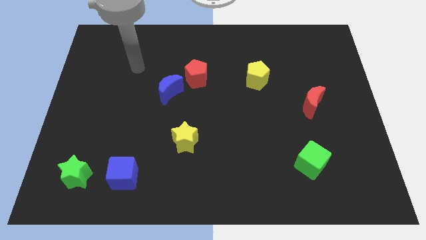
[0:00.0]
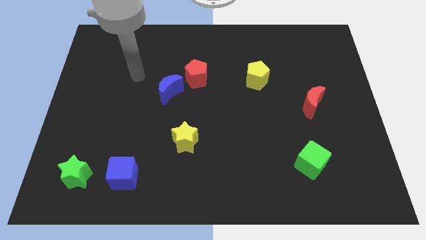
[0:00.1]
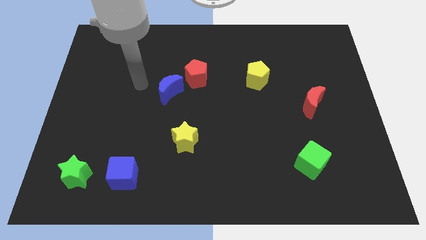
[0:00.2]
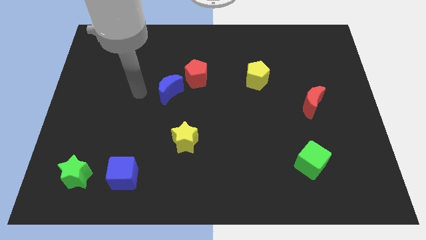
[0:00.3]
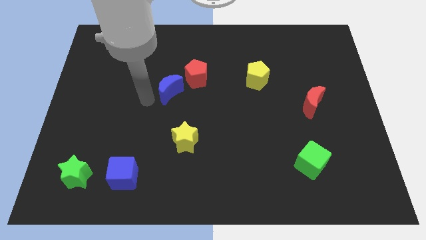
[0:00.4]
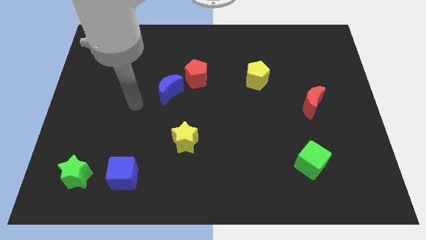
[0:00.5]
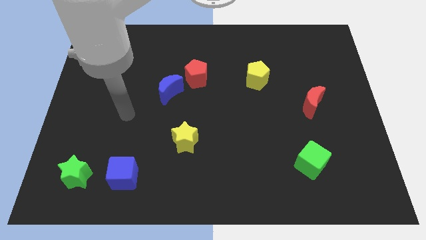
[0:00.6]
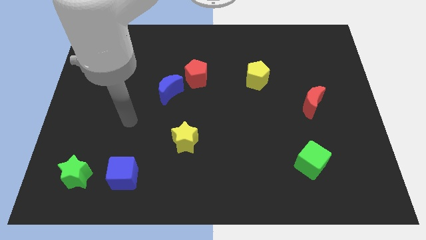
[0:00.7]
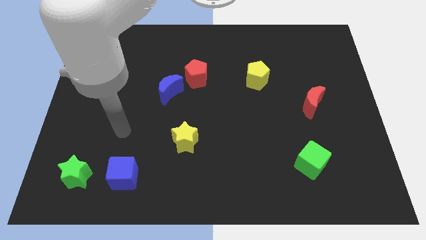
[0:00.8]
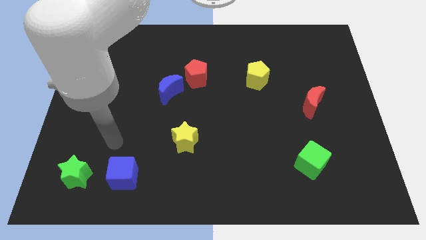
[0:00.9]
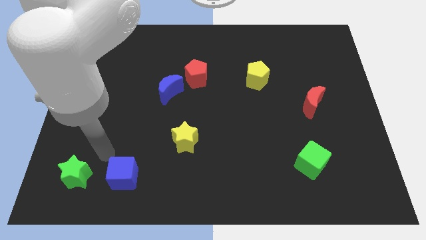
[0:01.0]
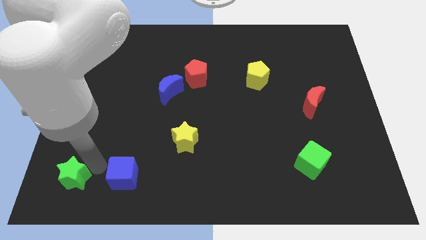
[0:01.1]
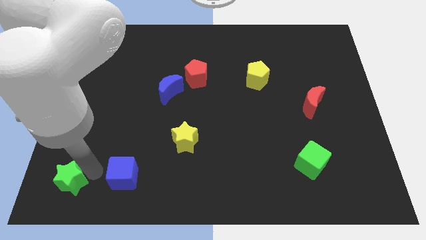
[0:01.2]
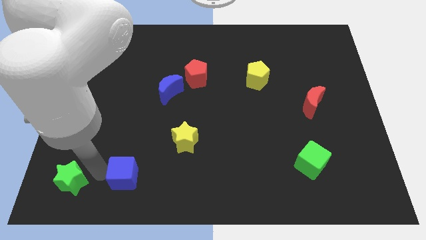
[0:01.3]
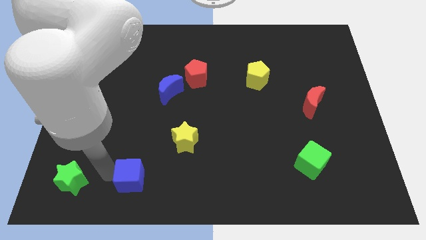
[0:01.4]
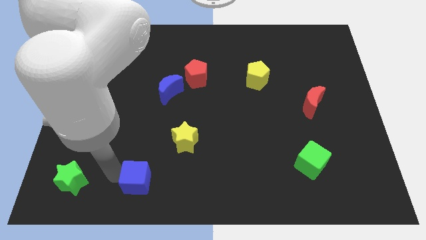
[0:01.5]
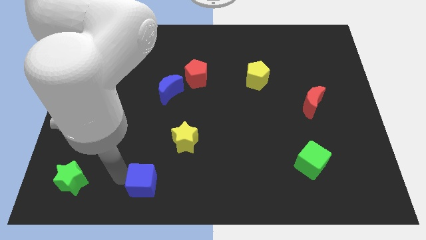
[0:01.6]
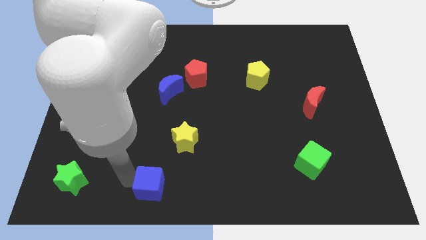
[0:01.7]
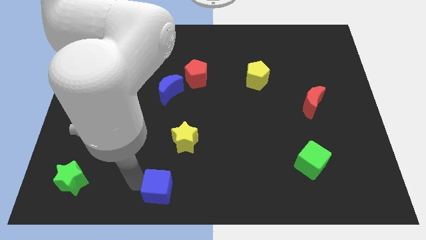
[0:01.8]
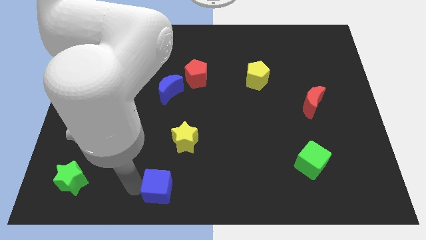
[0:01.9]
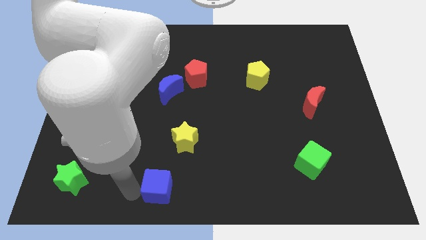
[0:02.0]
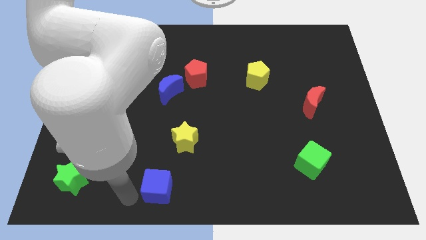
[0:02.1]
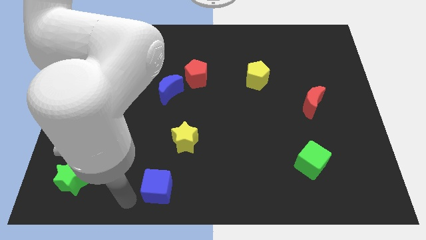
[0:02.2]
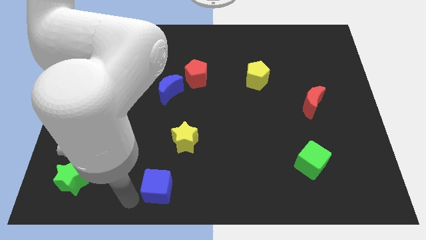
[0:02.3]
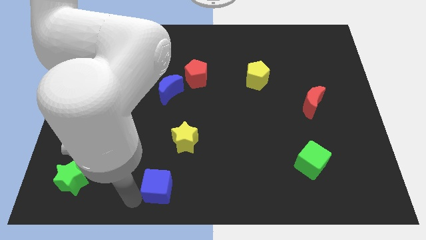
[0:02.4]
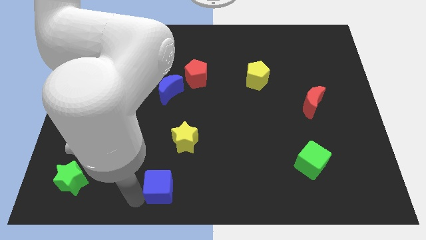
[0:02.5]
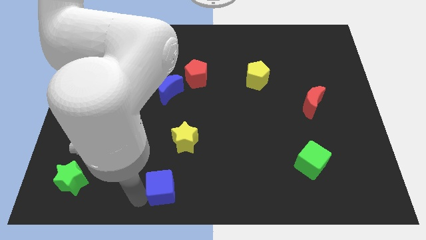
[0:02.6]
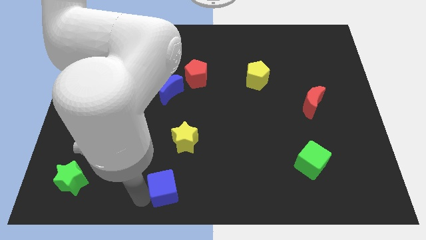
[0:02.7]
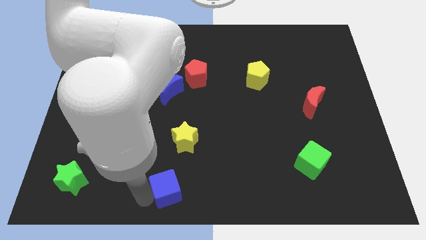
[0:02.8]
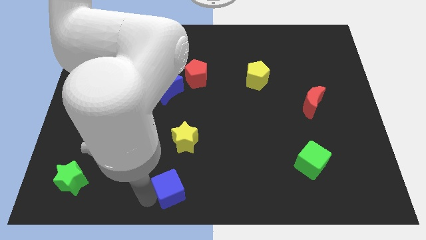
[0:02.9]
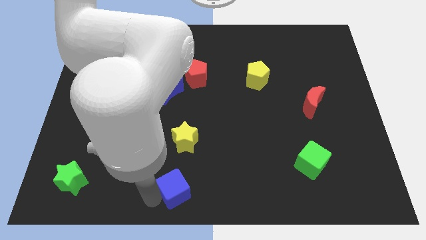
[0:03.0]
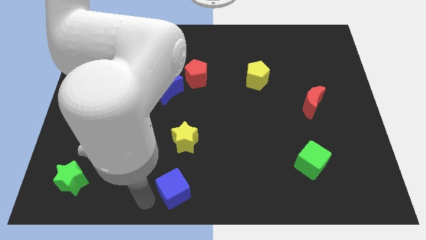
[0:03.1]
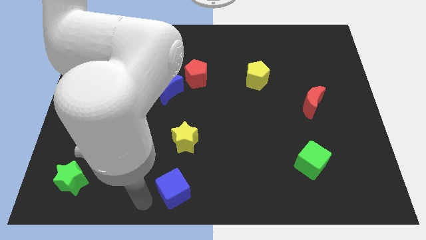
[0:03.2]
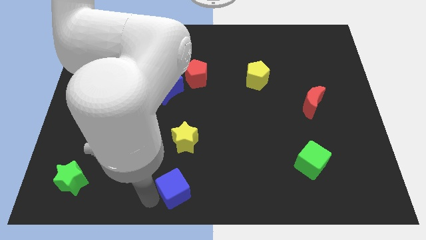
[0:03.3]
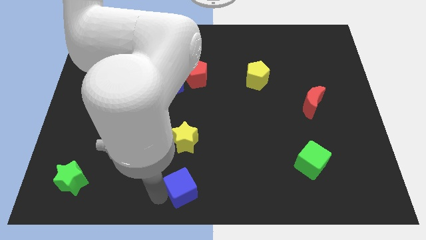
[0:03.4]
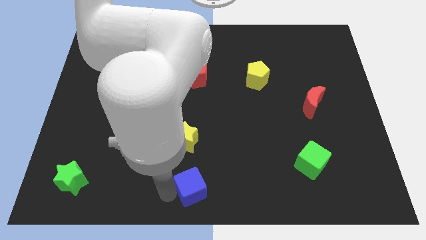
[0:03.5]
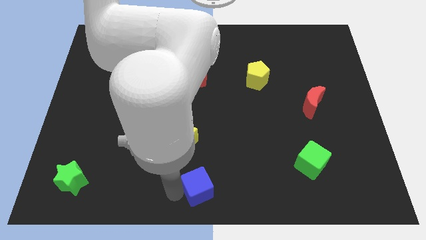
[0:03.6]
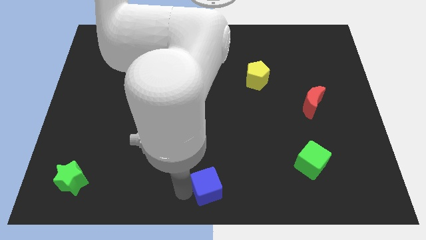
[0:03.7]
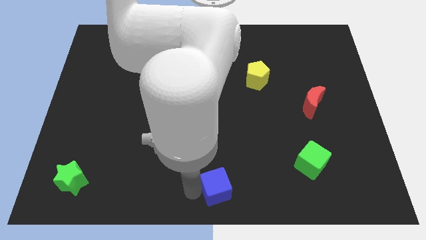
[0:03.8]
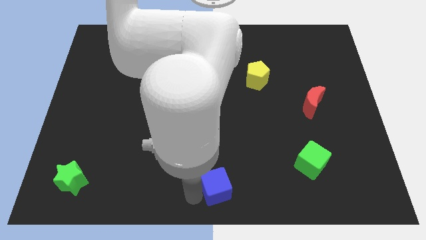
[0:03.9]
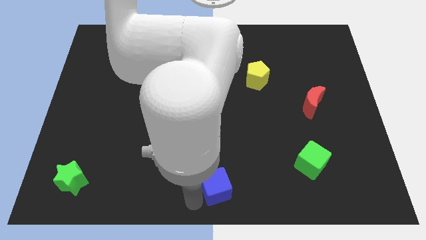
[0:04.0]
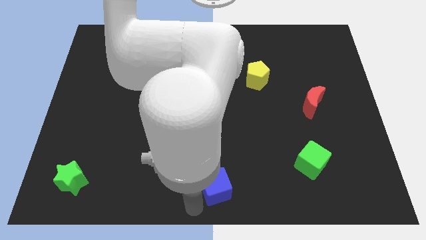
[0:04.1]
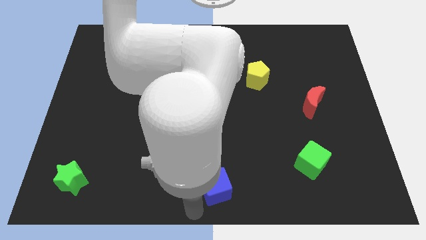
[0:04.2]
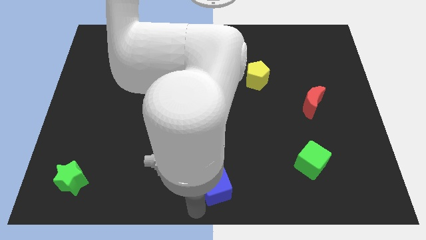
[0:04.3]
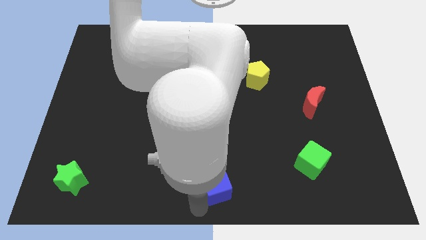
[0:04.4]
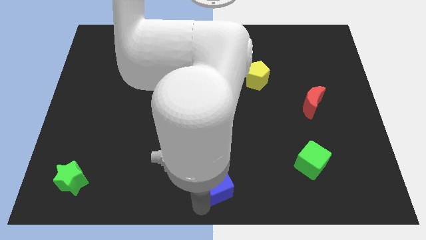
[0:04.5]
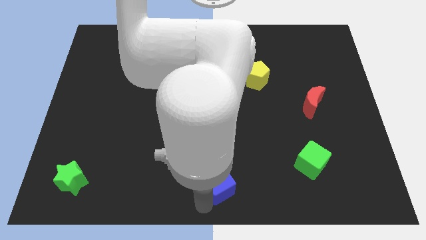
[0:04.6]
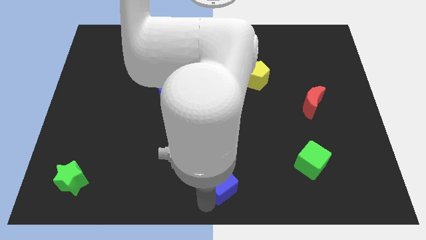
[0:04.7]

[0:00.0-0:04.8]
push the blue cube to the right

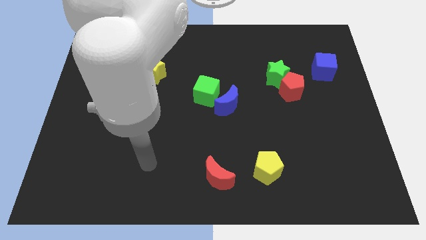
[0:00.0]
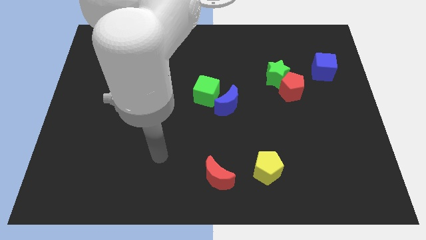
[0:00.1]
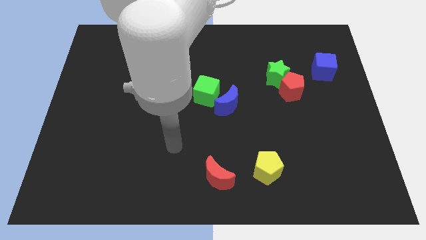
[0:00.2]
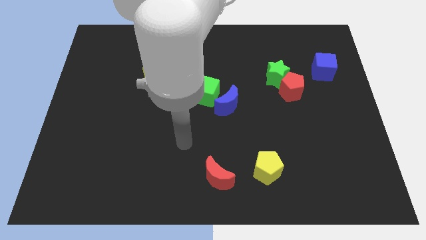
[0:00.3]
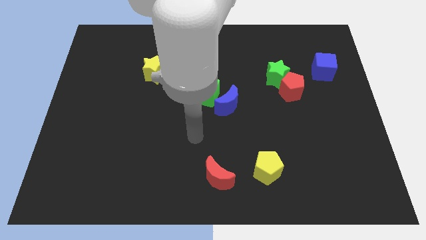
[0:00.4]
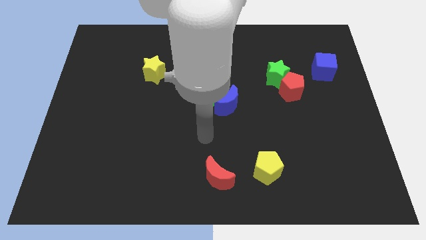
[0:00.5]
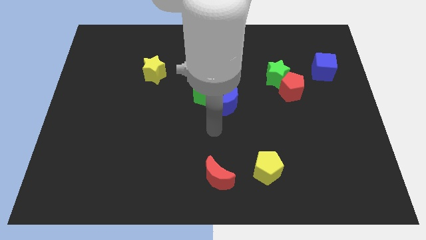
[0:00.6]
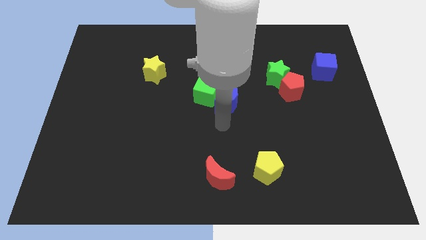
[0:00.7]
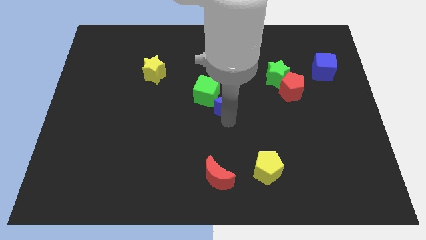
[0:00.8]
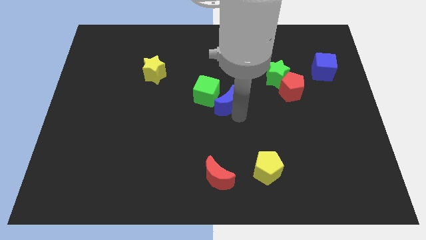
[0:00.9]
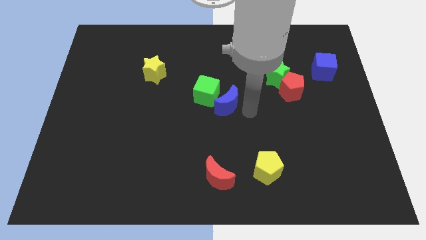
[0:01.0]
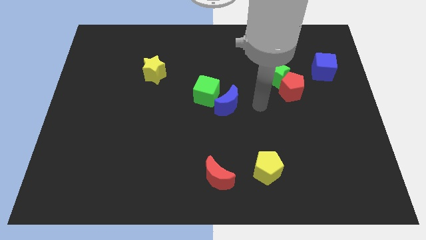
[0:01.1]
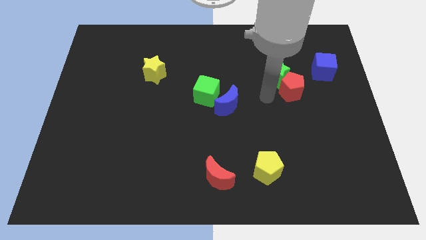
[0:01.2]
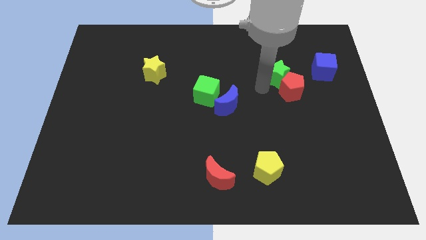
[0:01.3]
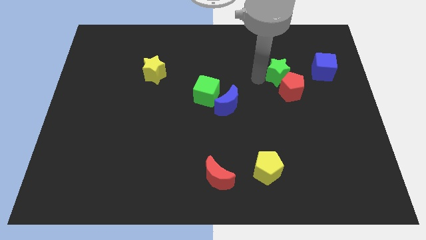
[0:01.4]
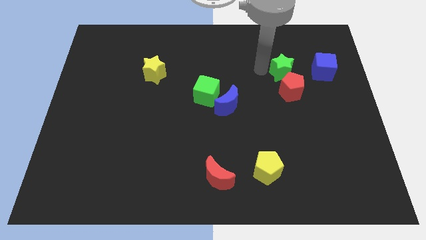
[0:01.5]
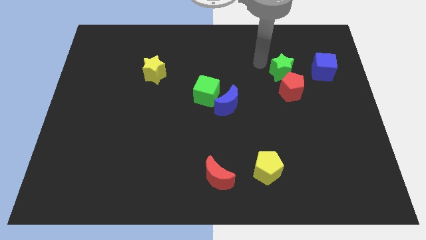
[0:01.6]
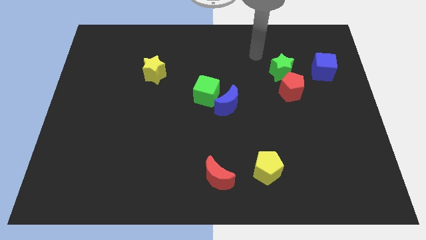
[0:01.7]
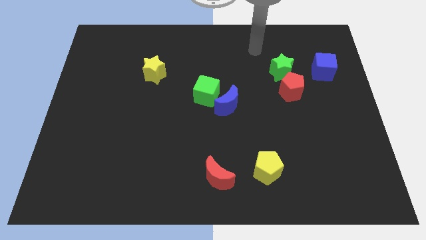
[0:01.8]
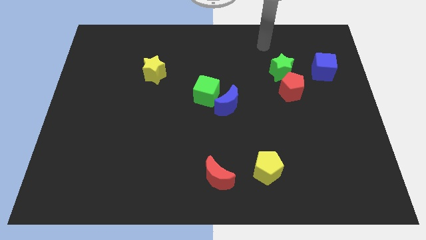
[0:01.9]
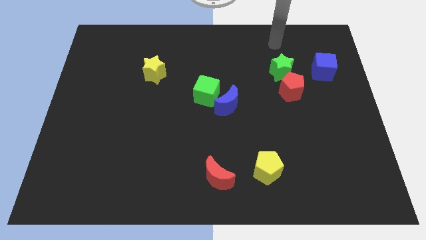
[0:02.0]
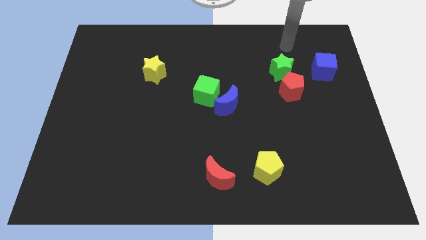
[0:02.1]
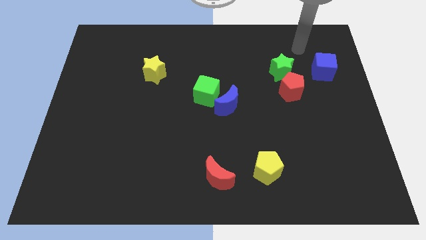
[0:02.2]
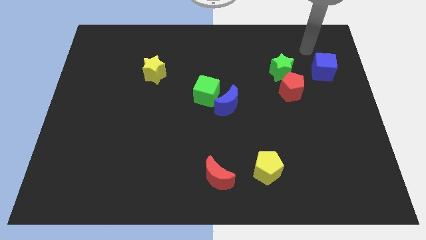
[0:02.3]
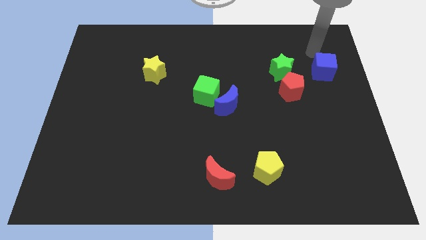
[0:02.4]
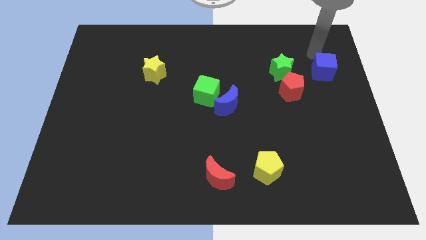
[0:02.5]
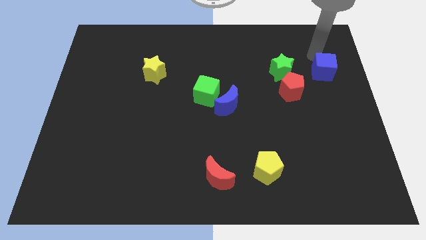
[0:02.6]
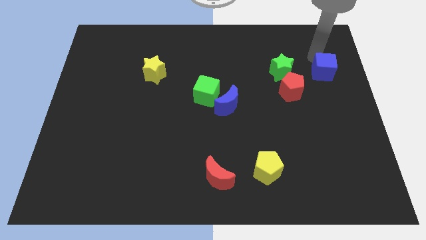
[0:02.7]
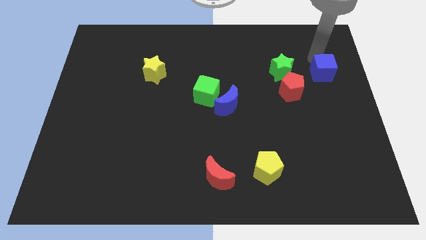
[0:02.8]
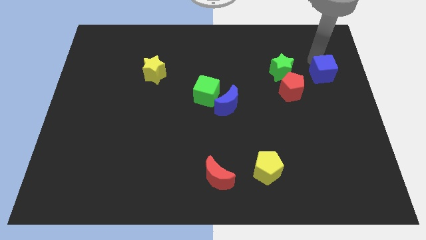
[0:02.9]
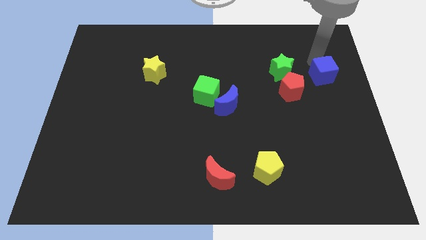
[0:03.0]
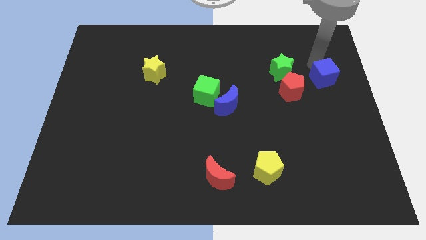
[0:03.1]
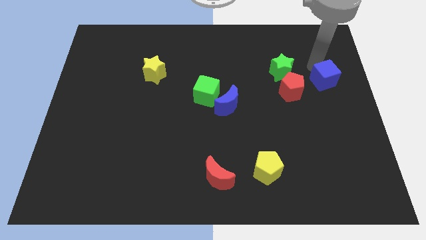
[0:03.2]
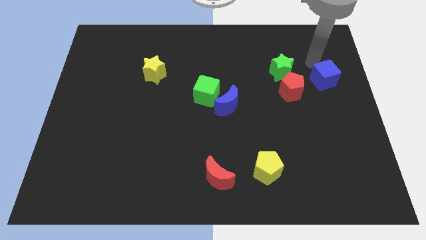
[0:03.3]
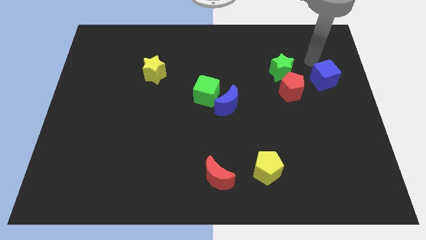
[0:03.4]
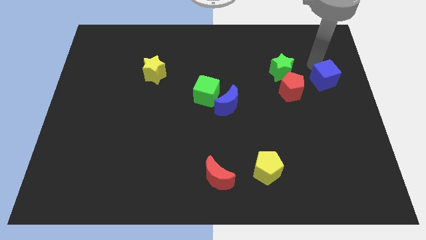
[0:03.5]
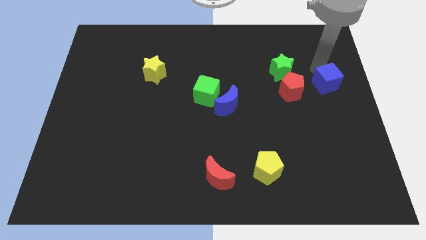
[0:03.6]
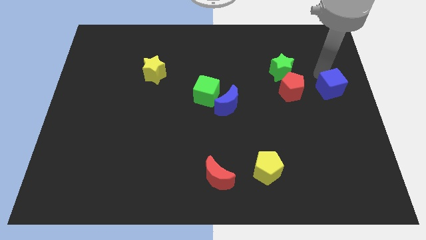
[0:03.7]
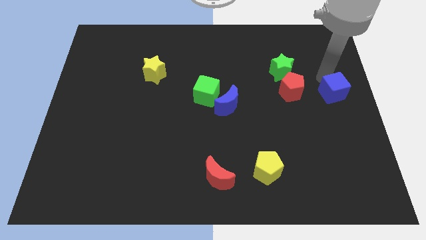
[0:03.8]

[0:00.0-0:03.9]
slide the blue cube downwards a bit
